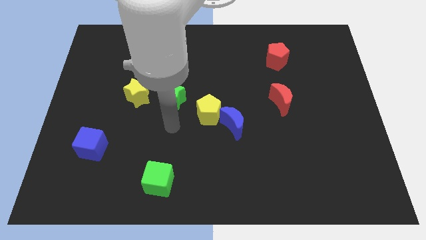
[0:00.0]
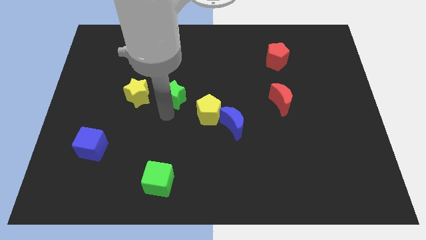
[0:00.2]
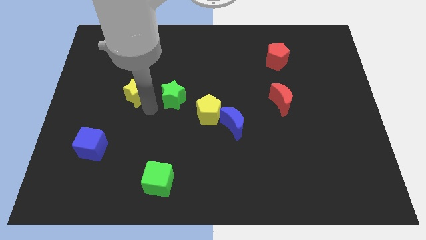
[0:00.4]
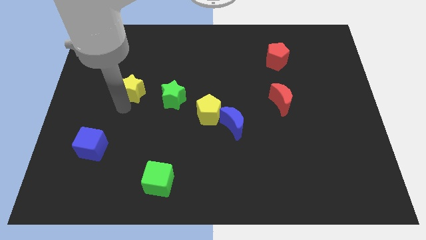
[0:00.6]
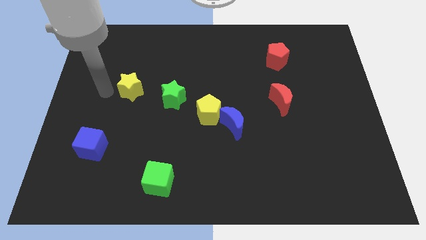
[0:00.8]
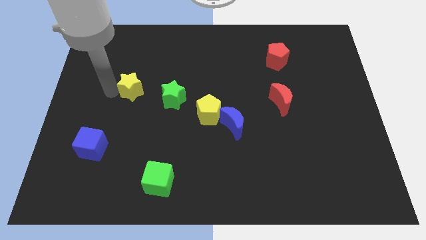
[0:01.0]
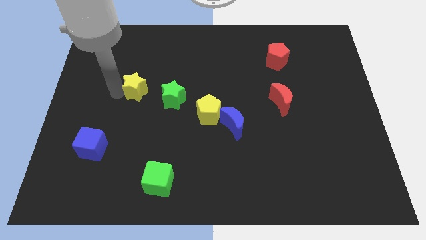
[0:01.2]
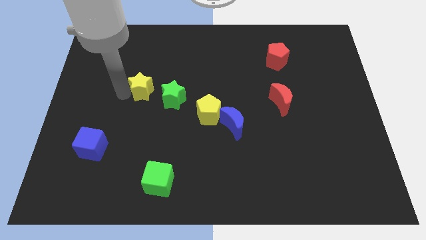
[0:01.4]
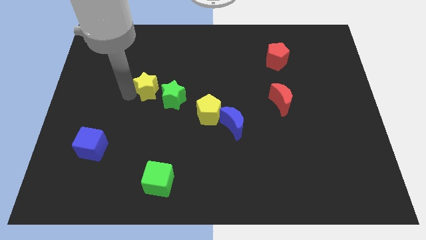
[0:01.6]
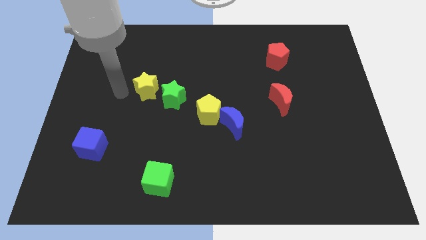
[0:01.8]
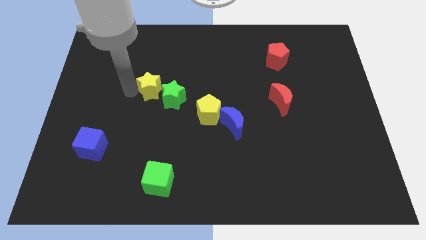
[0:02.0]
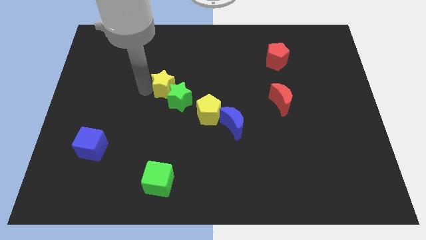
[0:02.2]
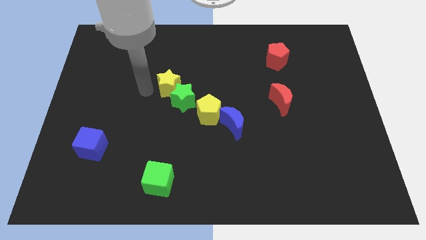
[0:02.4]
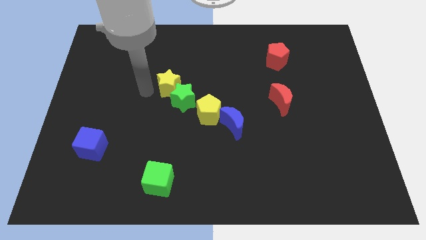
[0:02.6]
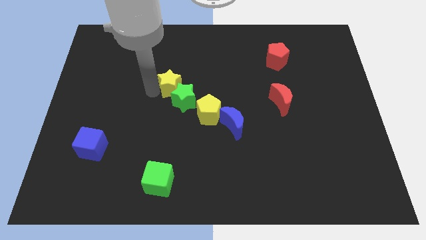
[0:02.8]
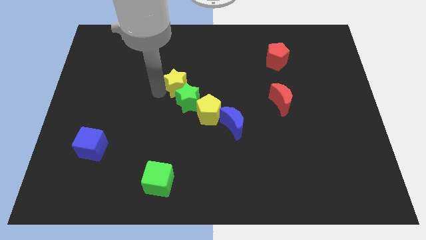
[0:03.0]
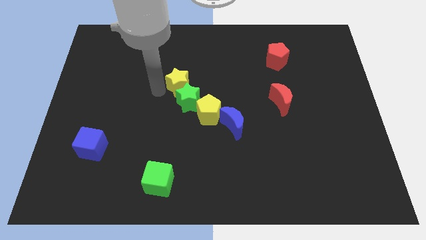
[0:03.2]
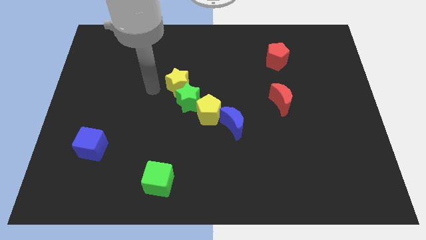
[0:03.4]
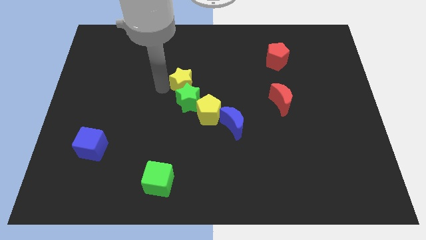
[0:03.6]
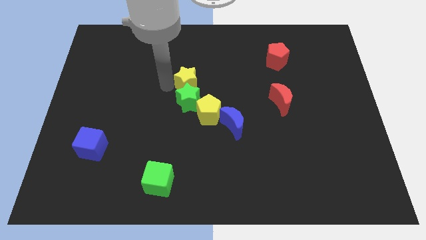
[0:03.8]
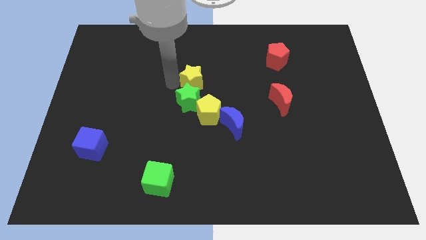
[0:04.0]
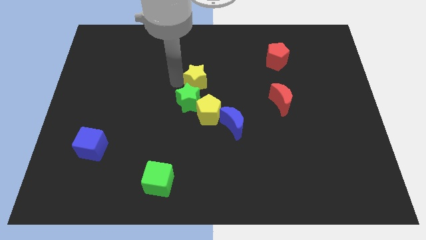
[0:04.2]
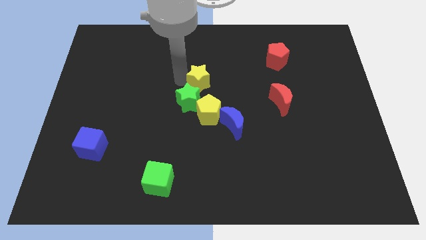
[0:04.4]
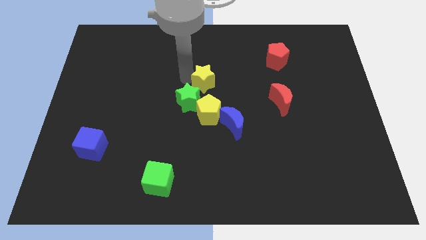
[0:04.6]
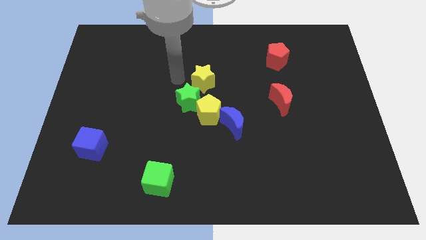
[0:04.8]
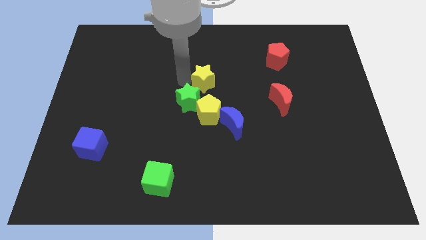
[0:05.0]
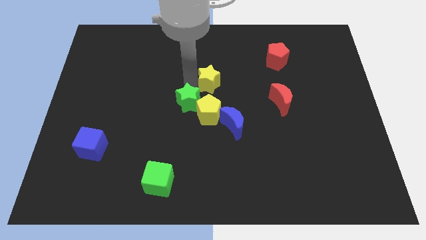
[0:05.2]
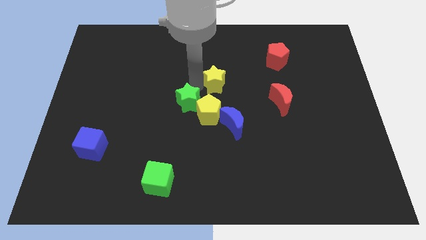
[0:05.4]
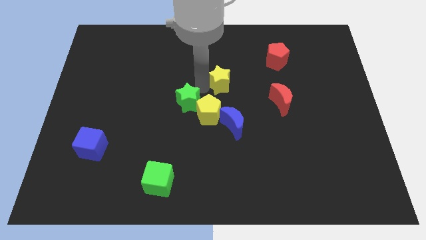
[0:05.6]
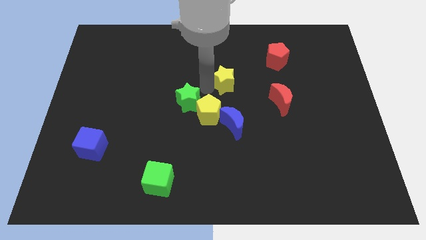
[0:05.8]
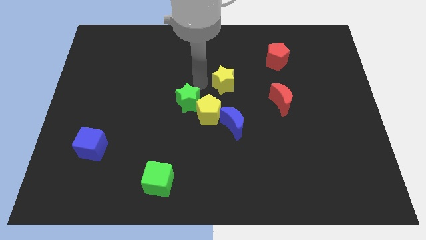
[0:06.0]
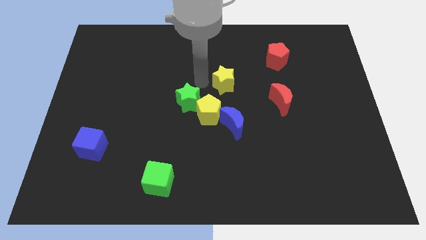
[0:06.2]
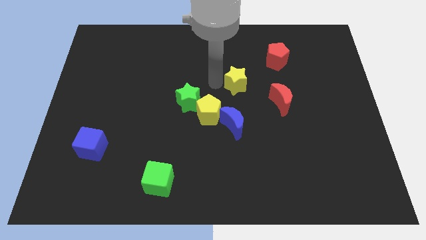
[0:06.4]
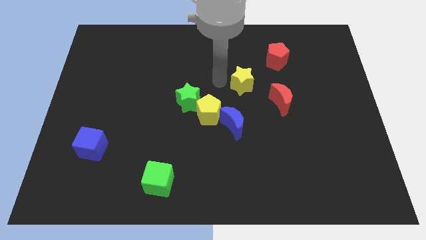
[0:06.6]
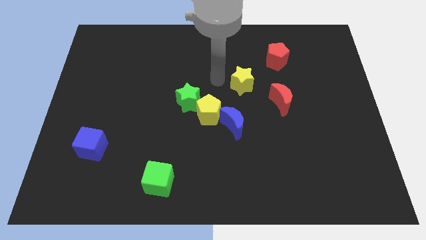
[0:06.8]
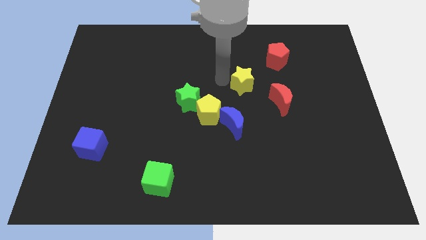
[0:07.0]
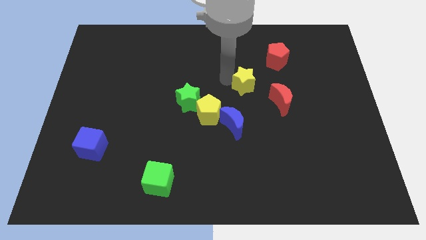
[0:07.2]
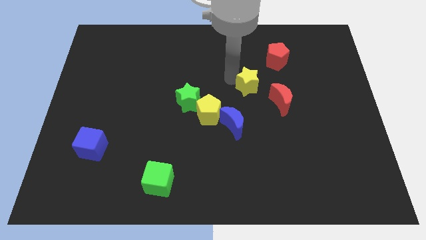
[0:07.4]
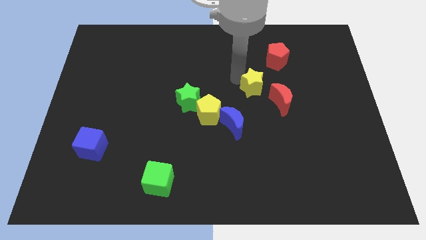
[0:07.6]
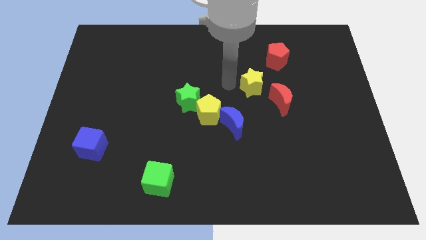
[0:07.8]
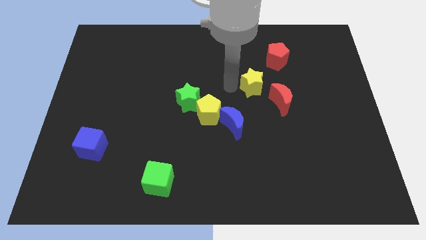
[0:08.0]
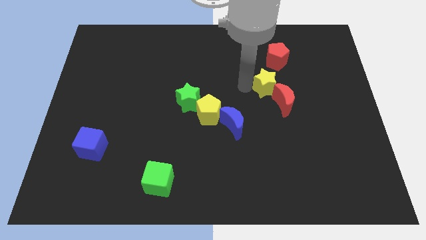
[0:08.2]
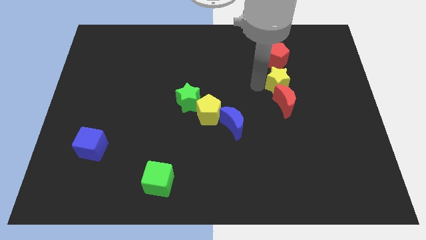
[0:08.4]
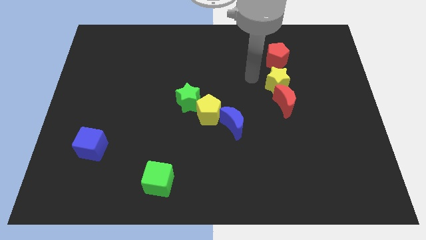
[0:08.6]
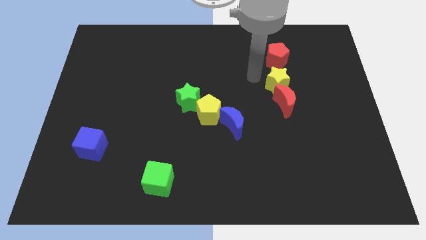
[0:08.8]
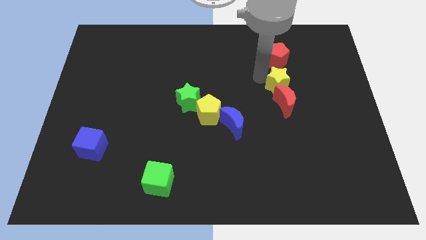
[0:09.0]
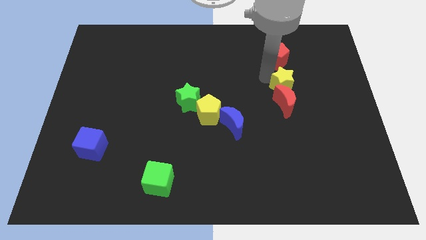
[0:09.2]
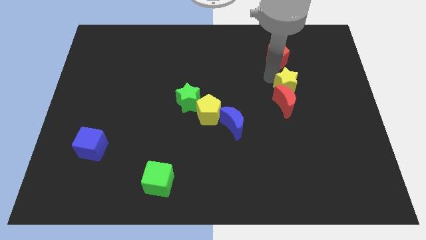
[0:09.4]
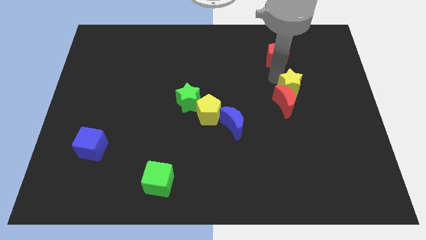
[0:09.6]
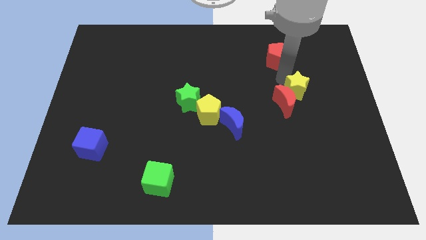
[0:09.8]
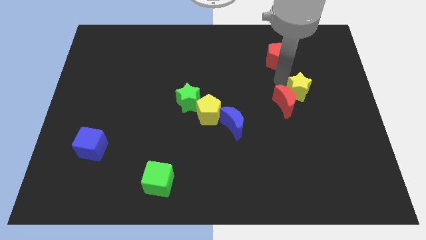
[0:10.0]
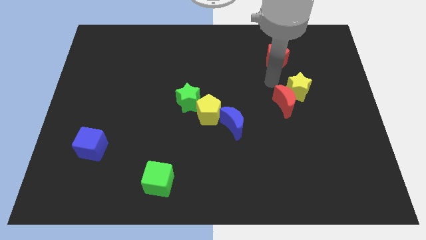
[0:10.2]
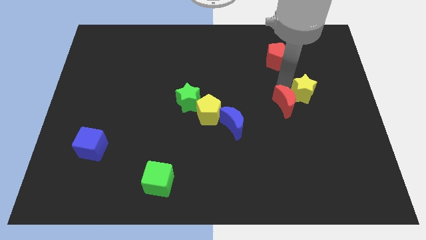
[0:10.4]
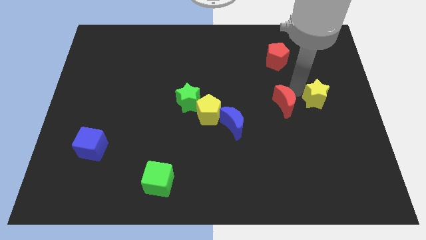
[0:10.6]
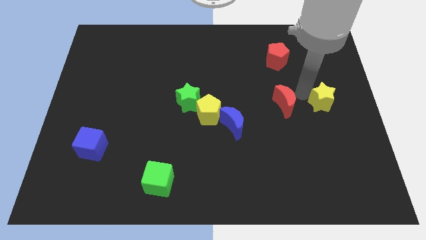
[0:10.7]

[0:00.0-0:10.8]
move the yellow star to the right side of the board

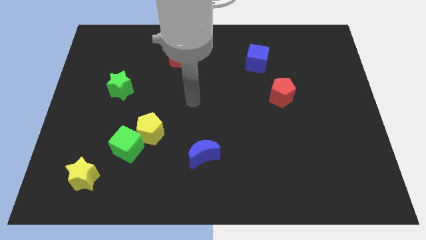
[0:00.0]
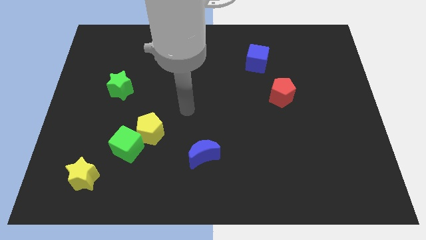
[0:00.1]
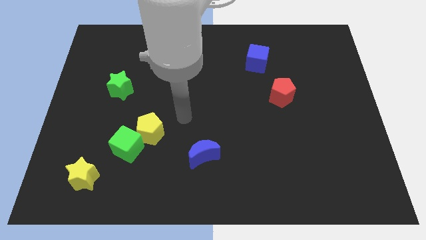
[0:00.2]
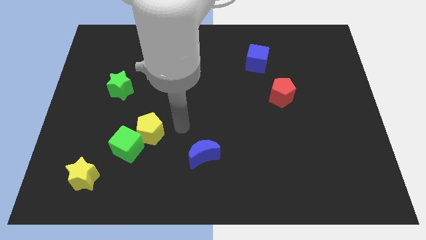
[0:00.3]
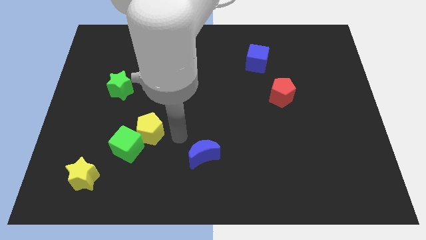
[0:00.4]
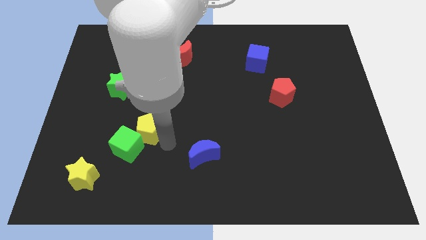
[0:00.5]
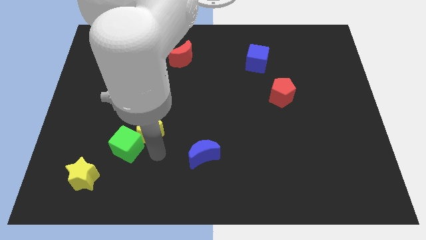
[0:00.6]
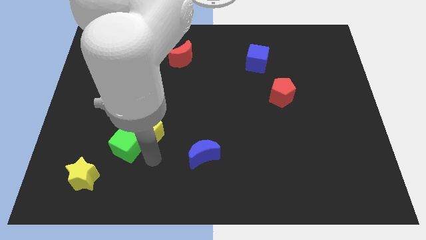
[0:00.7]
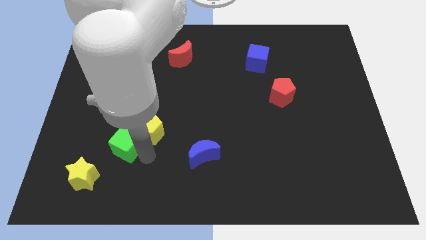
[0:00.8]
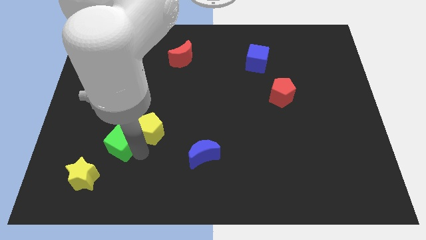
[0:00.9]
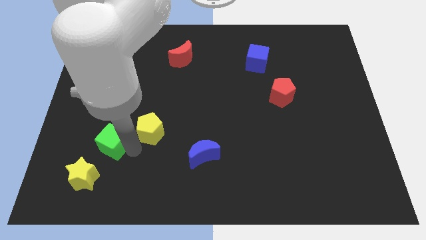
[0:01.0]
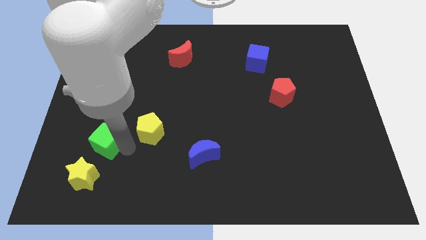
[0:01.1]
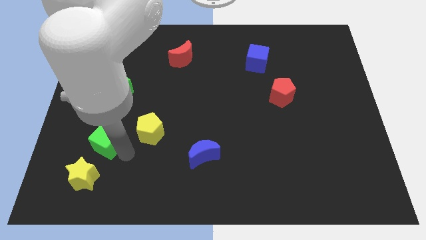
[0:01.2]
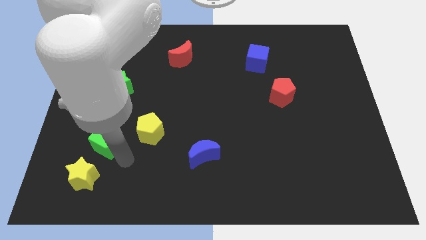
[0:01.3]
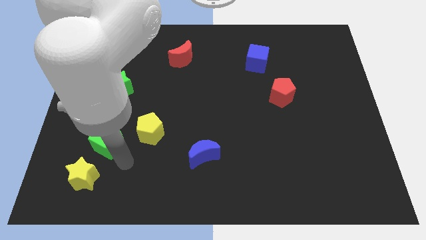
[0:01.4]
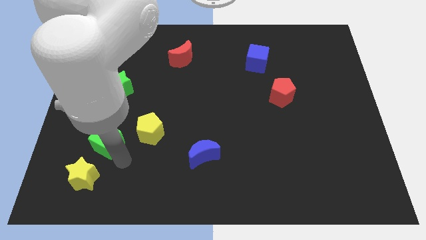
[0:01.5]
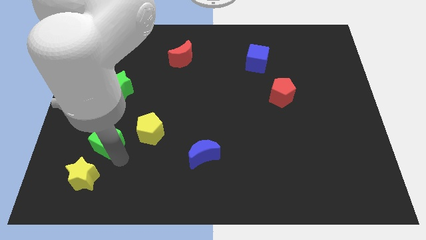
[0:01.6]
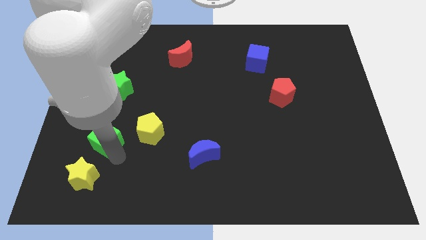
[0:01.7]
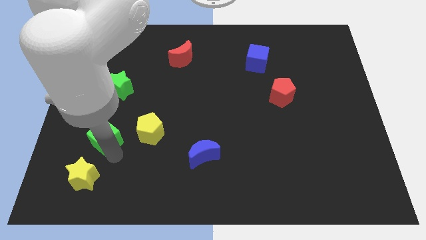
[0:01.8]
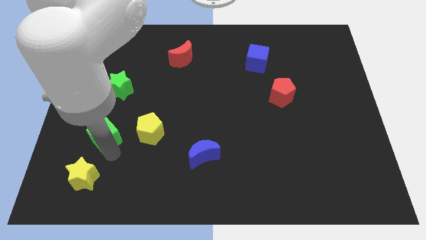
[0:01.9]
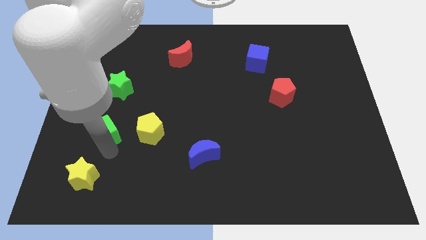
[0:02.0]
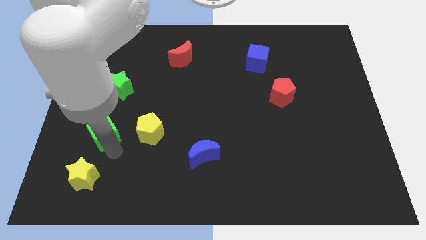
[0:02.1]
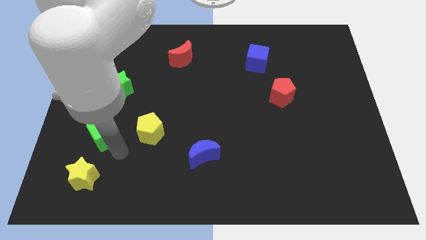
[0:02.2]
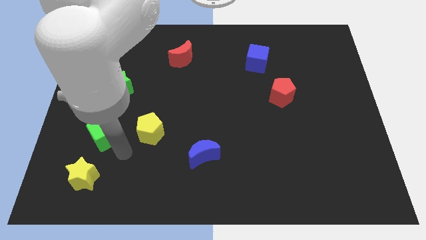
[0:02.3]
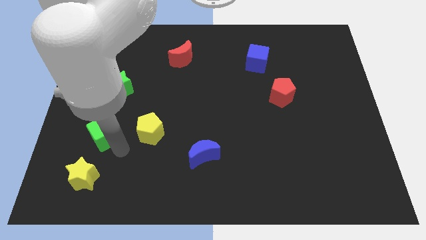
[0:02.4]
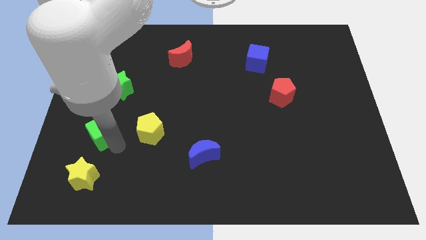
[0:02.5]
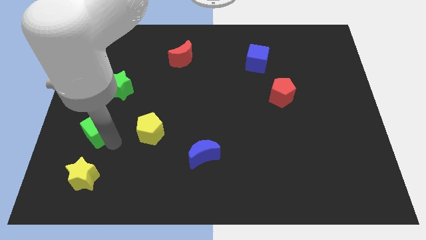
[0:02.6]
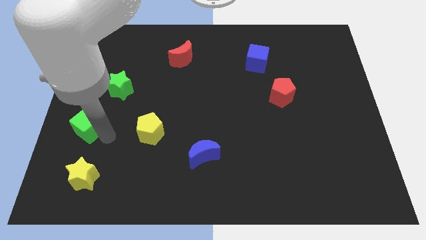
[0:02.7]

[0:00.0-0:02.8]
push the green cube to the left side of the board
